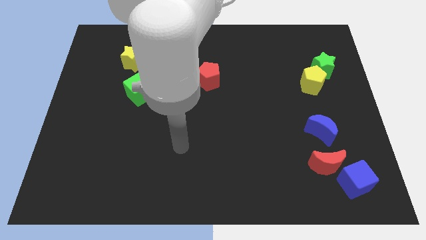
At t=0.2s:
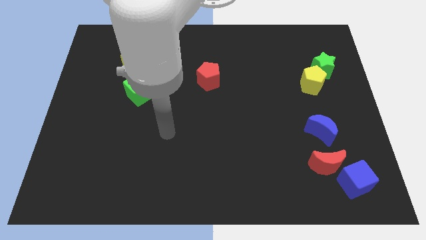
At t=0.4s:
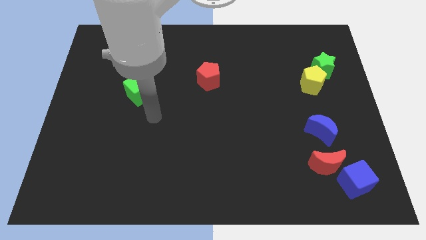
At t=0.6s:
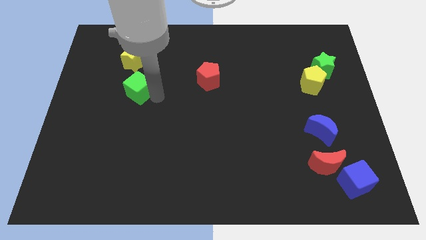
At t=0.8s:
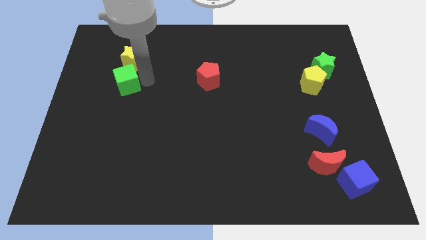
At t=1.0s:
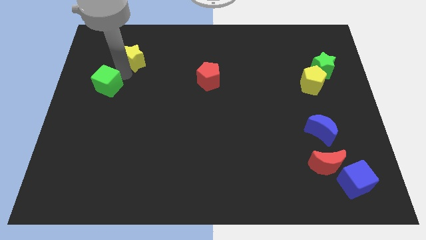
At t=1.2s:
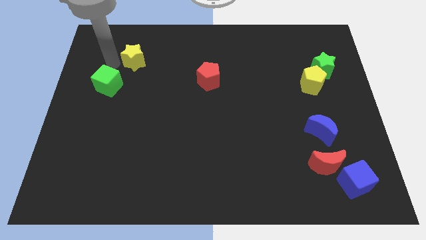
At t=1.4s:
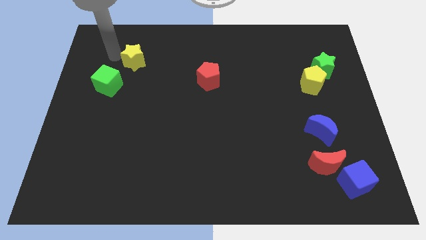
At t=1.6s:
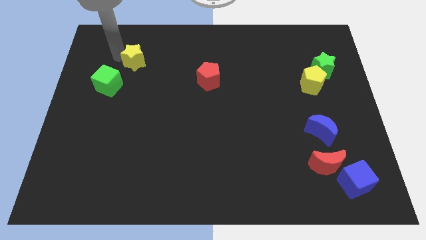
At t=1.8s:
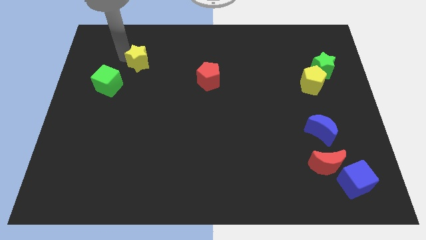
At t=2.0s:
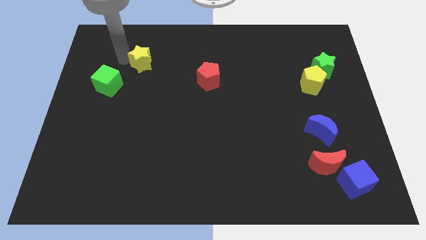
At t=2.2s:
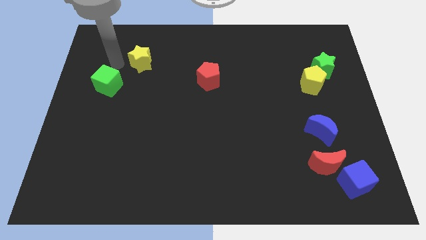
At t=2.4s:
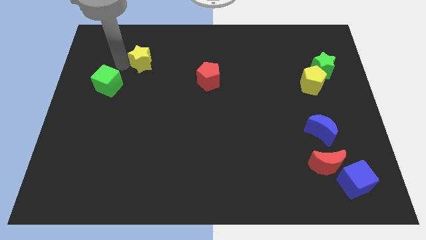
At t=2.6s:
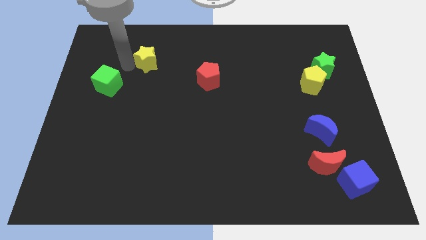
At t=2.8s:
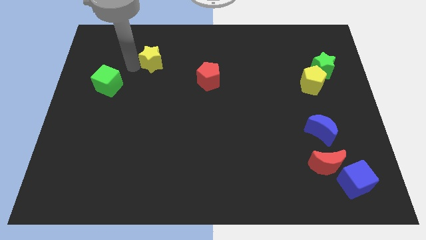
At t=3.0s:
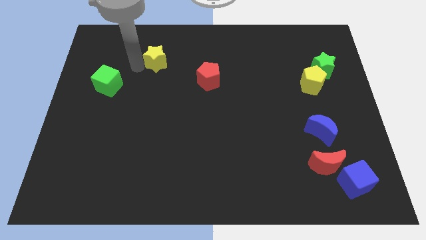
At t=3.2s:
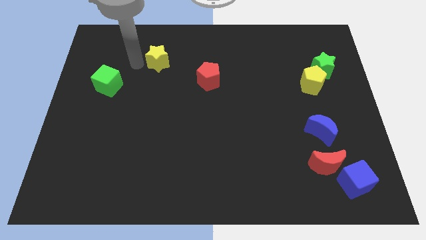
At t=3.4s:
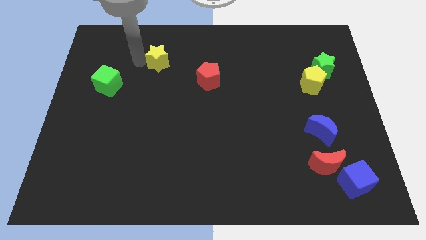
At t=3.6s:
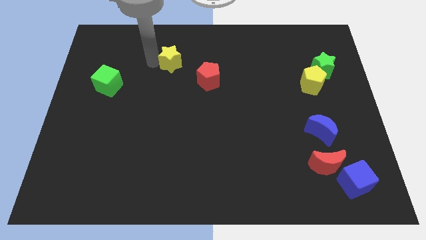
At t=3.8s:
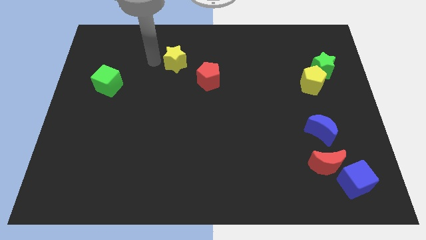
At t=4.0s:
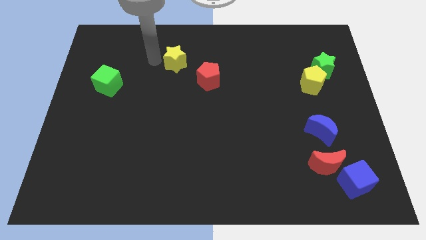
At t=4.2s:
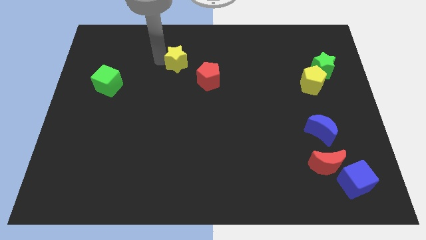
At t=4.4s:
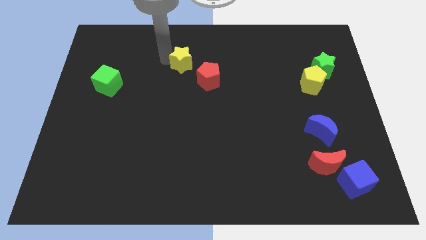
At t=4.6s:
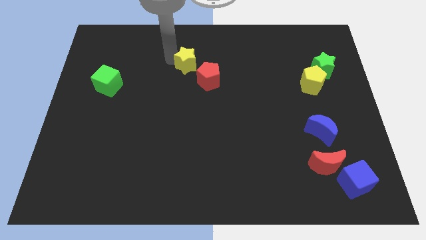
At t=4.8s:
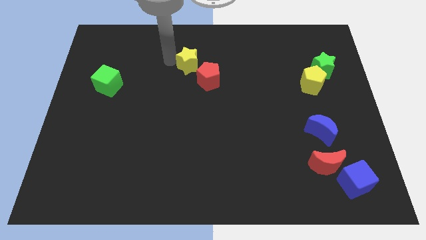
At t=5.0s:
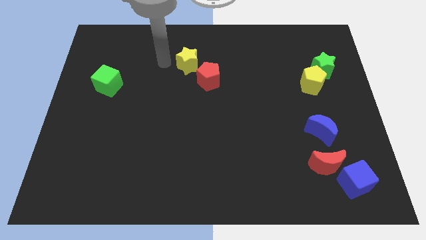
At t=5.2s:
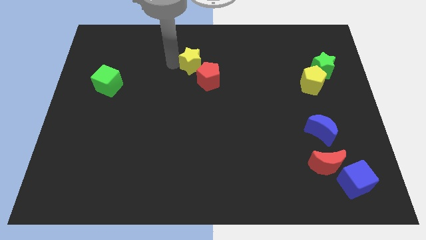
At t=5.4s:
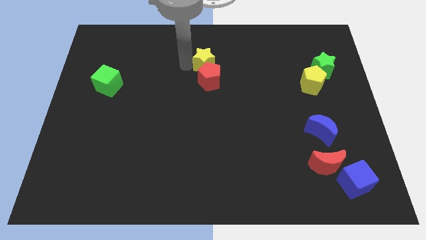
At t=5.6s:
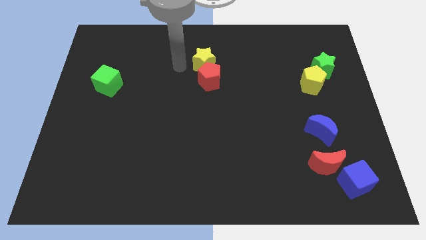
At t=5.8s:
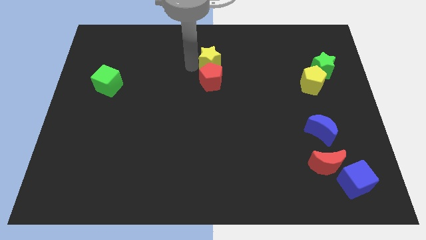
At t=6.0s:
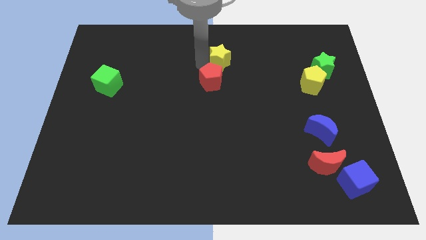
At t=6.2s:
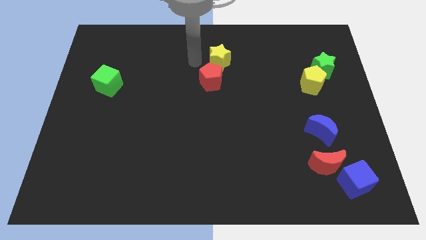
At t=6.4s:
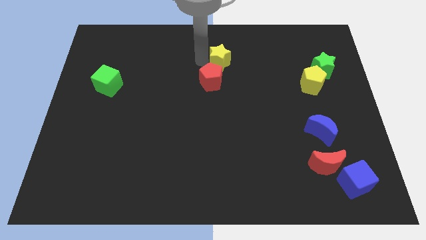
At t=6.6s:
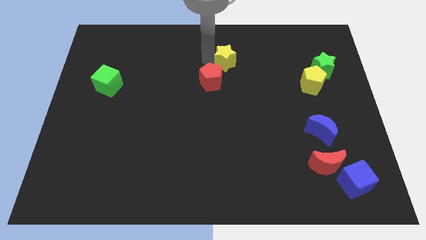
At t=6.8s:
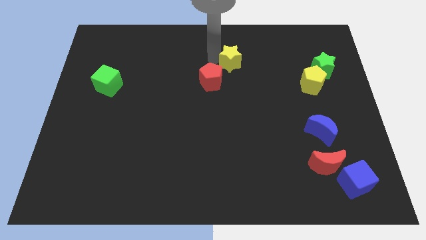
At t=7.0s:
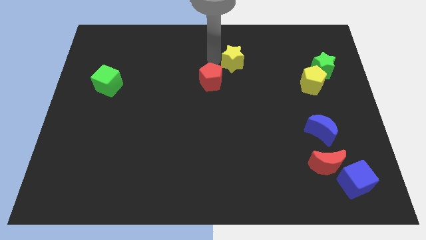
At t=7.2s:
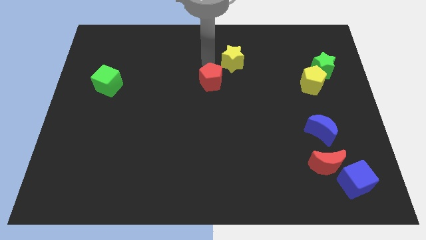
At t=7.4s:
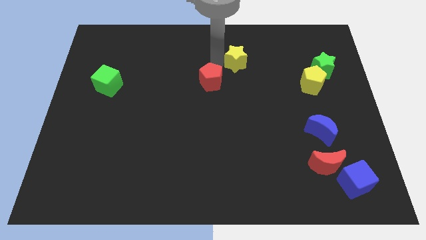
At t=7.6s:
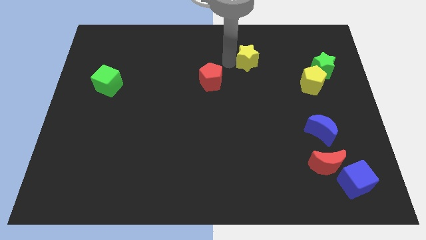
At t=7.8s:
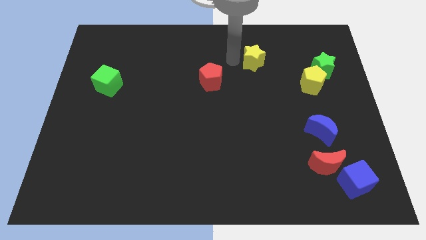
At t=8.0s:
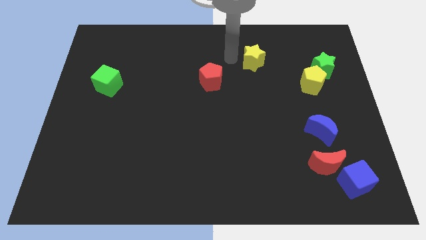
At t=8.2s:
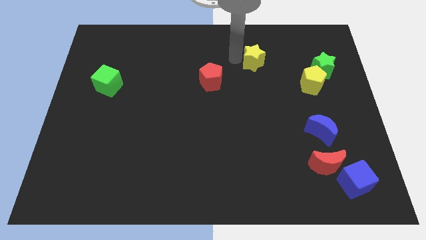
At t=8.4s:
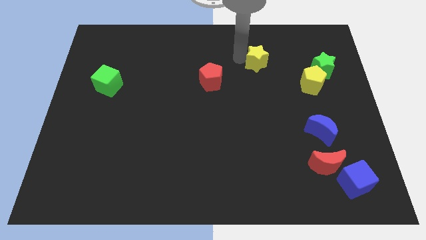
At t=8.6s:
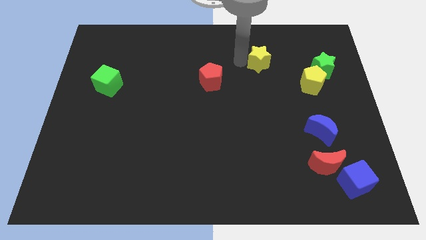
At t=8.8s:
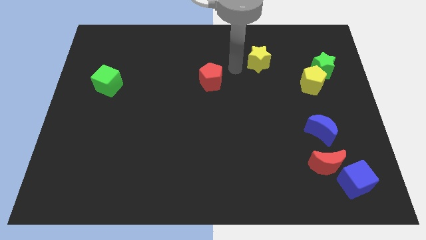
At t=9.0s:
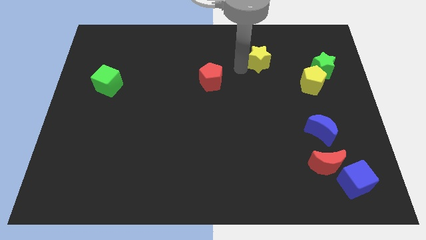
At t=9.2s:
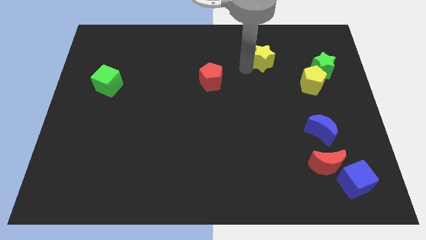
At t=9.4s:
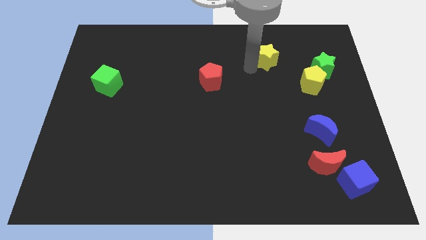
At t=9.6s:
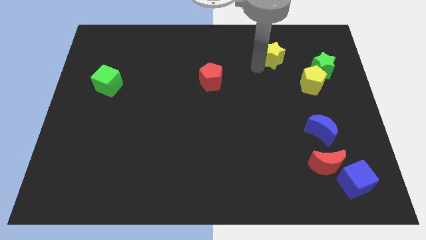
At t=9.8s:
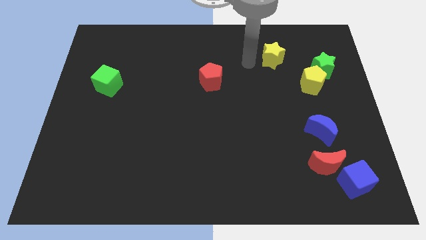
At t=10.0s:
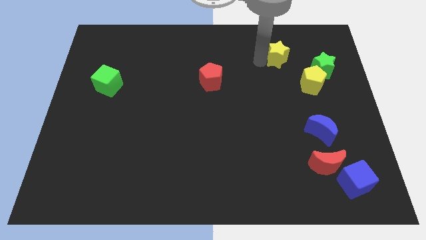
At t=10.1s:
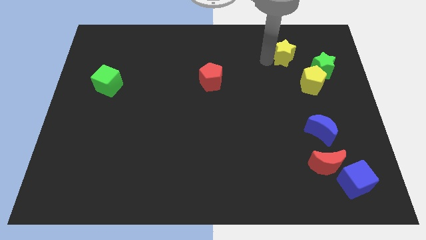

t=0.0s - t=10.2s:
put the yellow star to the top left of the green star

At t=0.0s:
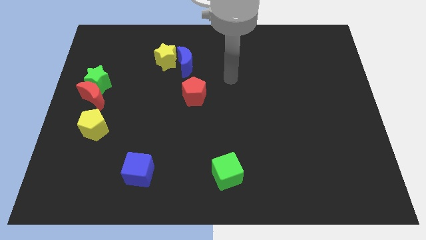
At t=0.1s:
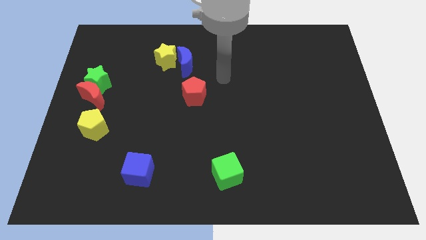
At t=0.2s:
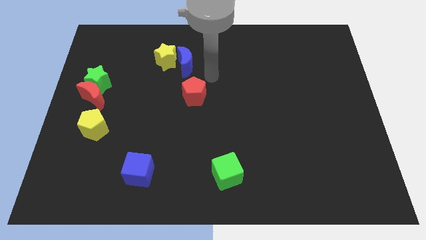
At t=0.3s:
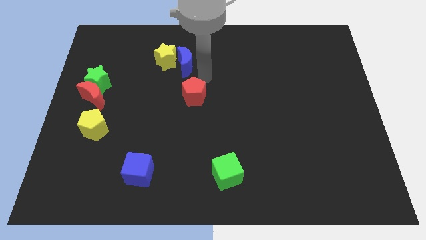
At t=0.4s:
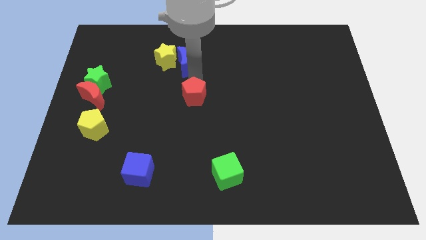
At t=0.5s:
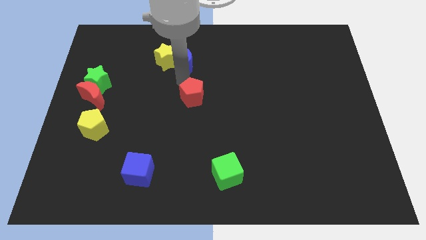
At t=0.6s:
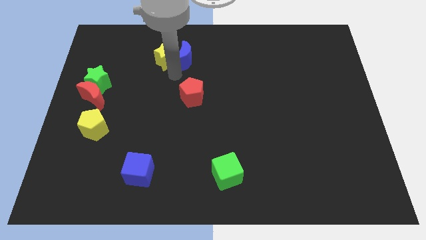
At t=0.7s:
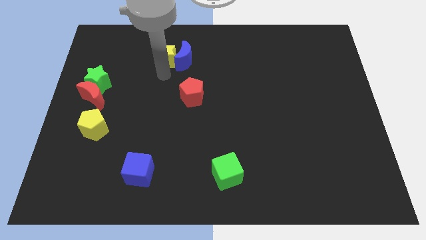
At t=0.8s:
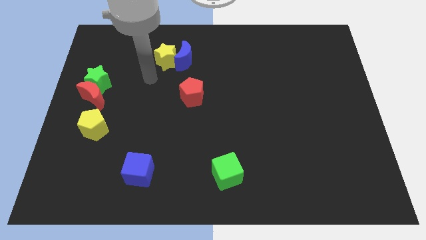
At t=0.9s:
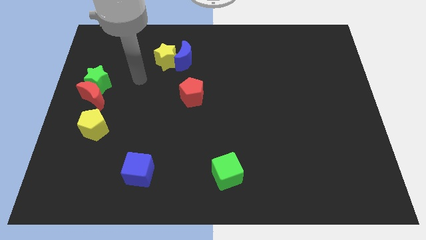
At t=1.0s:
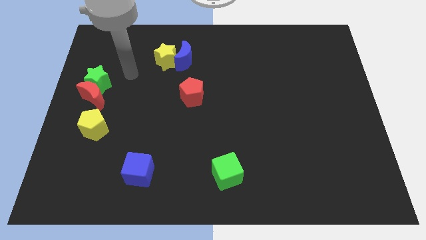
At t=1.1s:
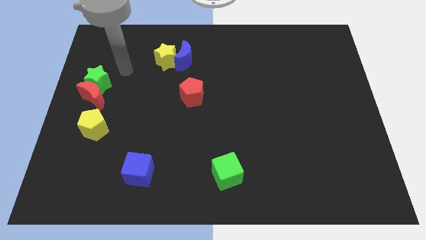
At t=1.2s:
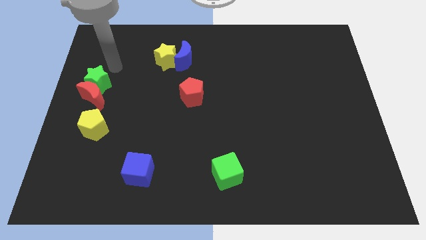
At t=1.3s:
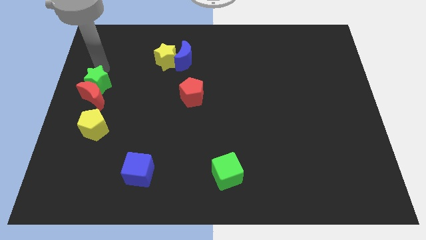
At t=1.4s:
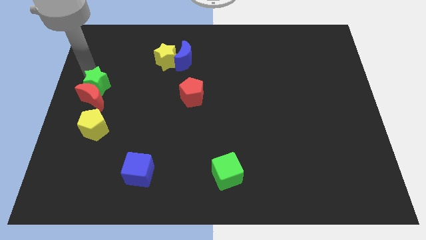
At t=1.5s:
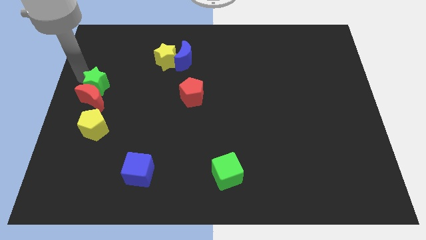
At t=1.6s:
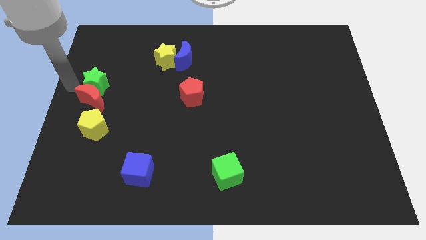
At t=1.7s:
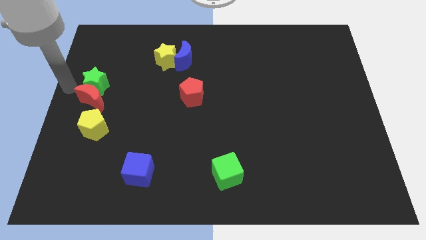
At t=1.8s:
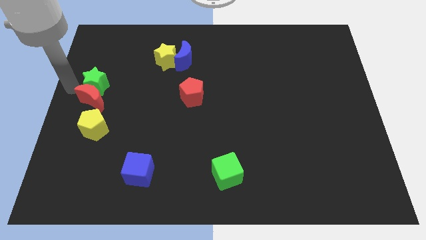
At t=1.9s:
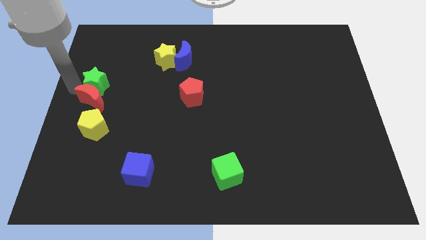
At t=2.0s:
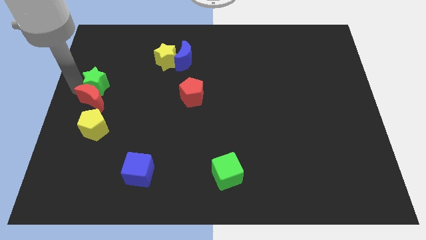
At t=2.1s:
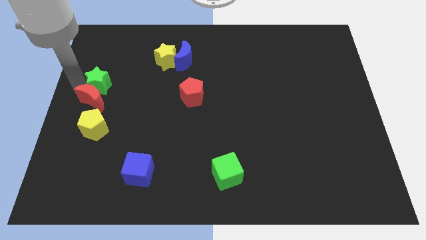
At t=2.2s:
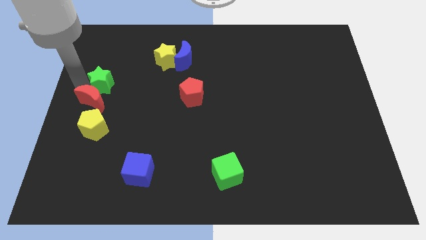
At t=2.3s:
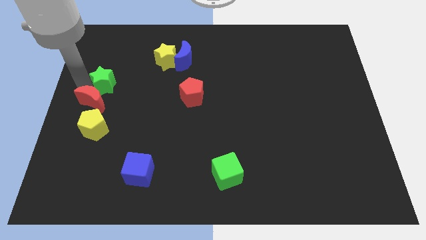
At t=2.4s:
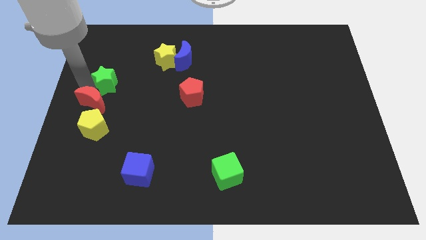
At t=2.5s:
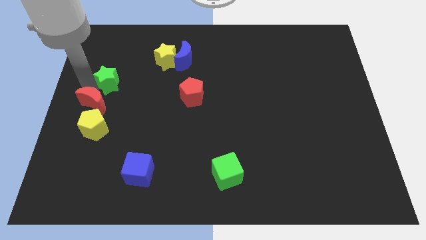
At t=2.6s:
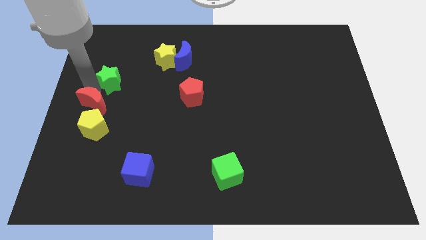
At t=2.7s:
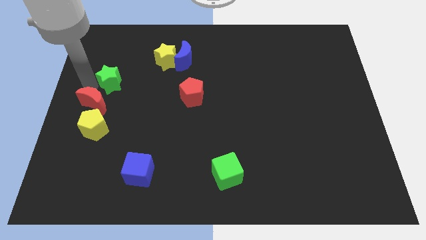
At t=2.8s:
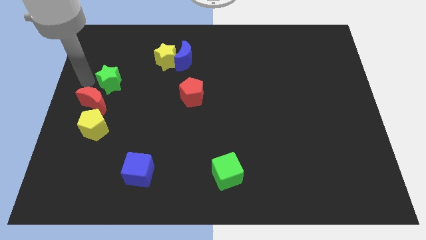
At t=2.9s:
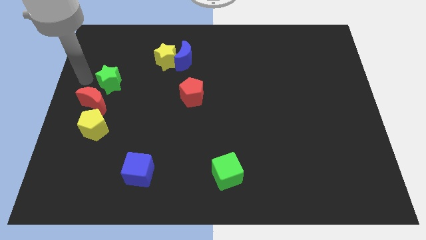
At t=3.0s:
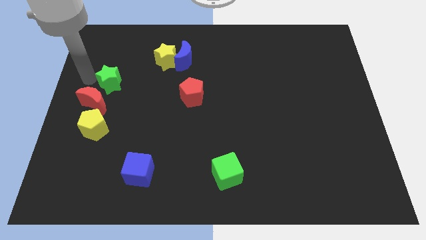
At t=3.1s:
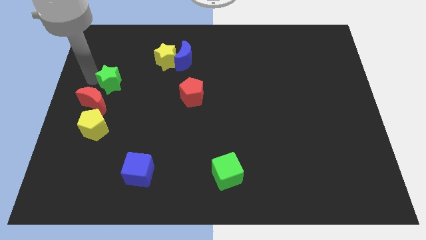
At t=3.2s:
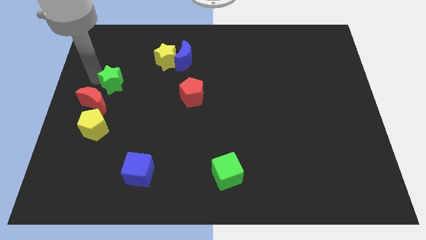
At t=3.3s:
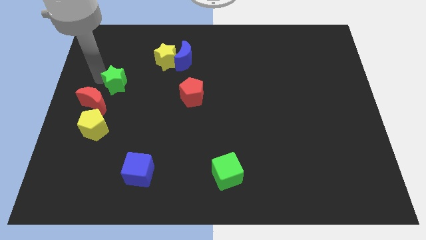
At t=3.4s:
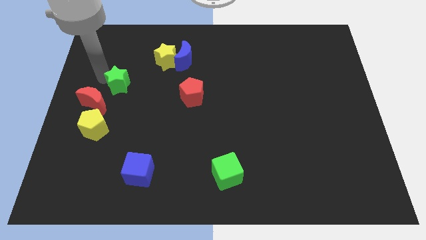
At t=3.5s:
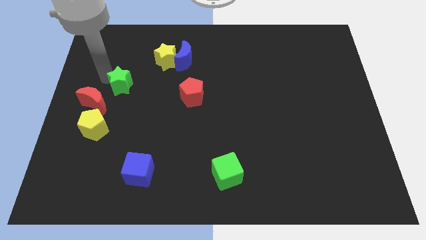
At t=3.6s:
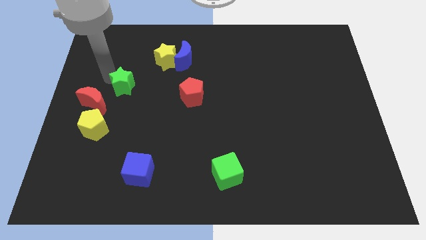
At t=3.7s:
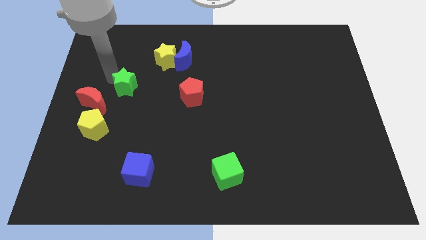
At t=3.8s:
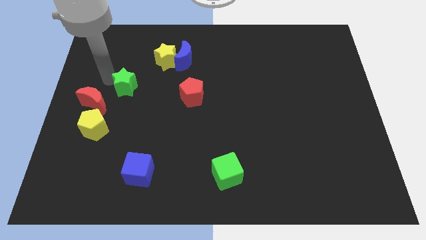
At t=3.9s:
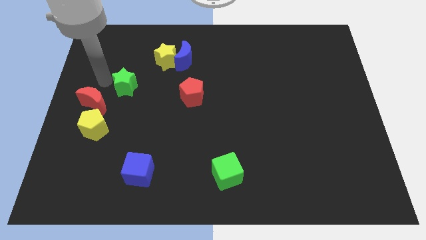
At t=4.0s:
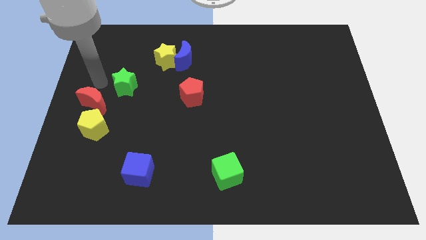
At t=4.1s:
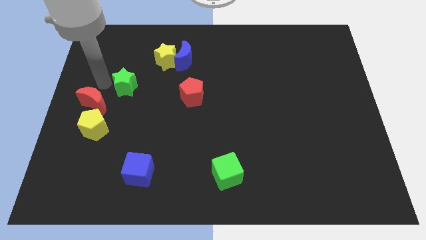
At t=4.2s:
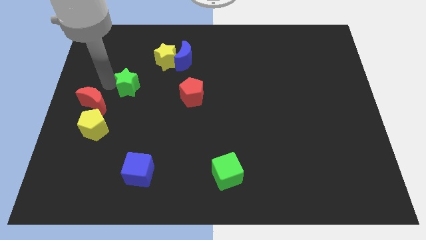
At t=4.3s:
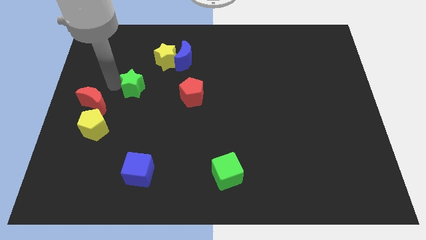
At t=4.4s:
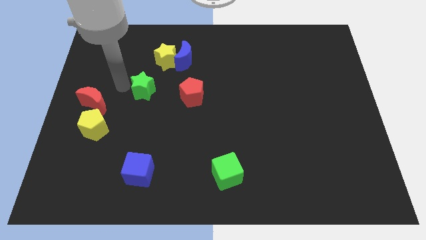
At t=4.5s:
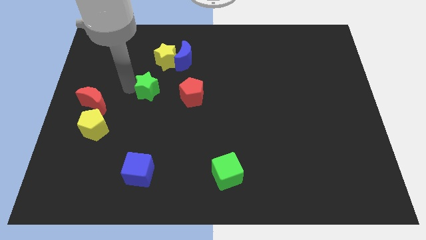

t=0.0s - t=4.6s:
put the green star to the bottom of the yellow star
